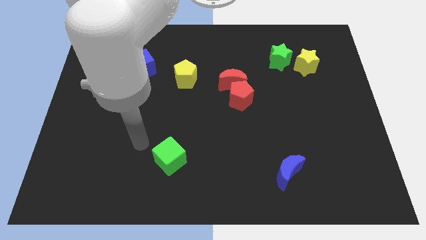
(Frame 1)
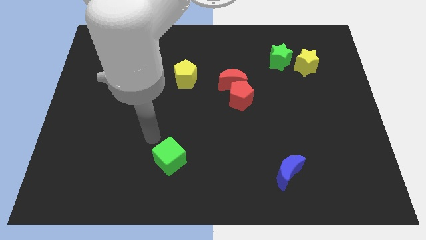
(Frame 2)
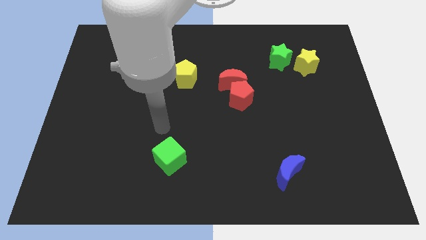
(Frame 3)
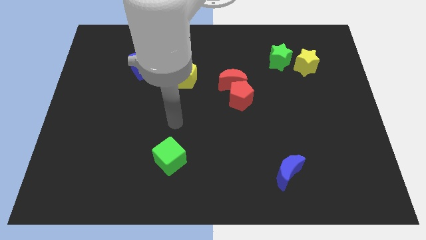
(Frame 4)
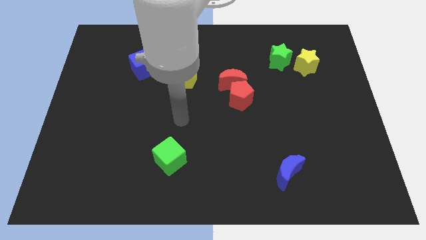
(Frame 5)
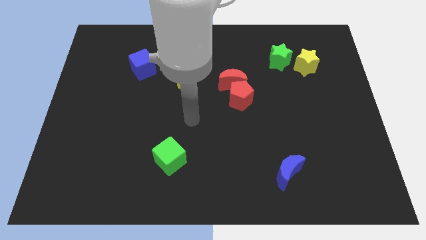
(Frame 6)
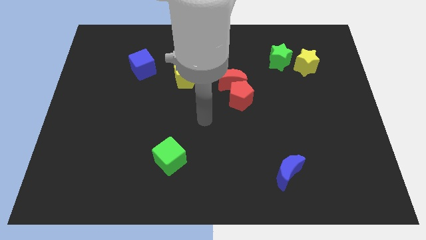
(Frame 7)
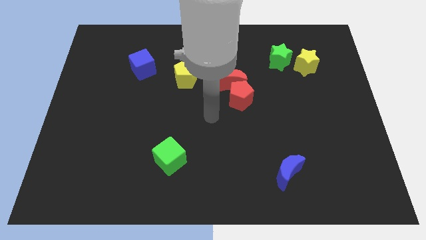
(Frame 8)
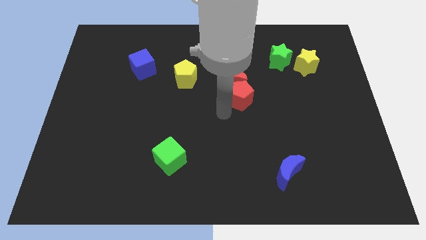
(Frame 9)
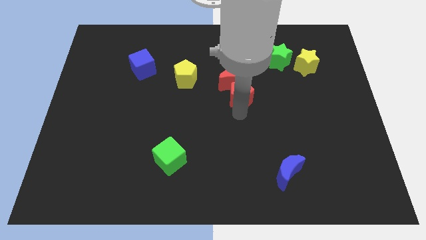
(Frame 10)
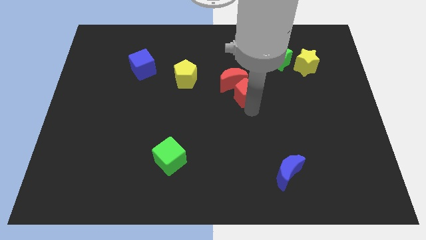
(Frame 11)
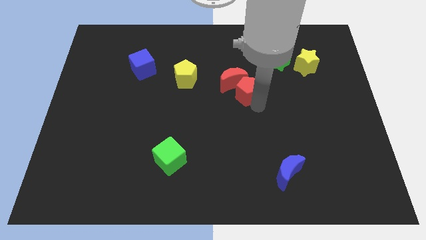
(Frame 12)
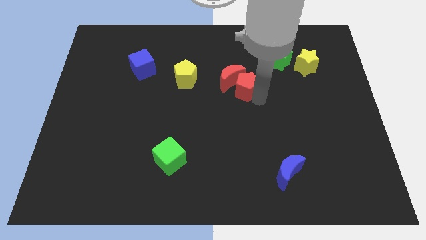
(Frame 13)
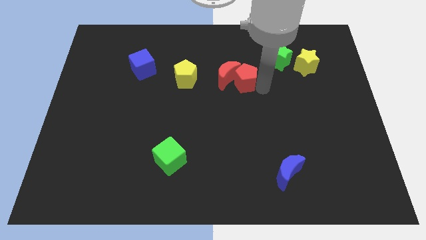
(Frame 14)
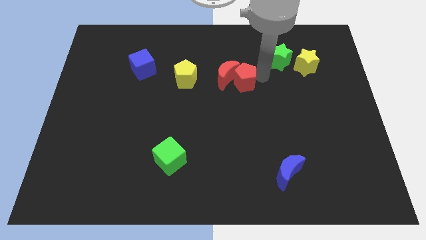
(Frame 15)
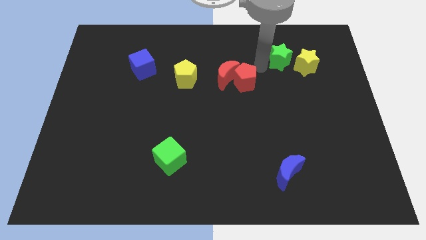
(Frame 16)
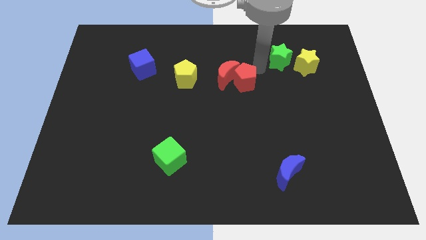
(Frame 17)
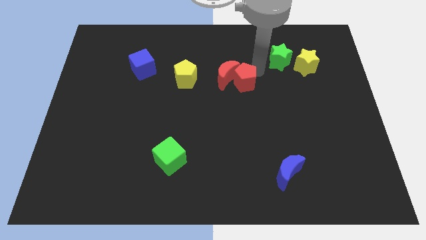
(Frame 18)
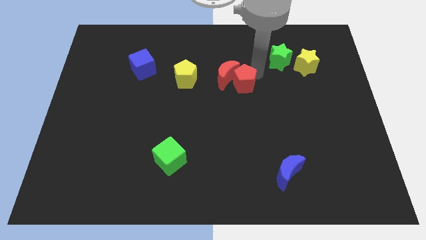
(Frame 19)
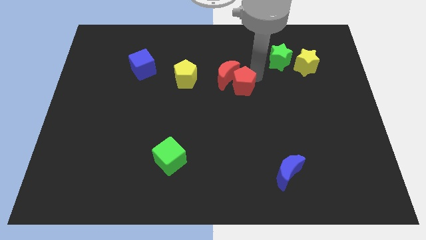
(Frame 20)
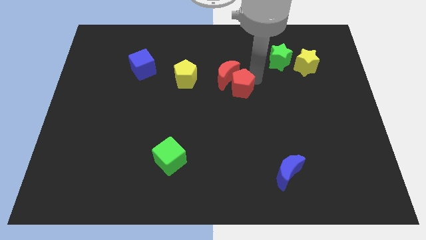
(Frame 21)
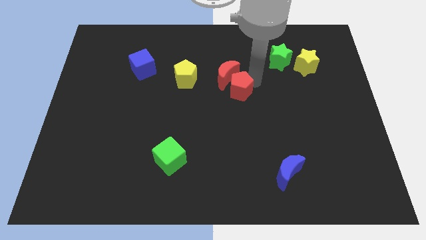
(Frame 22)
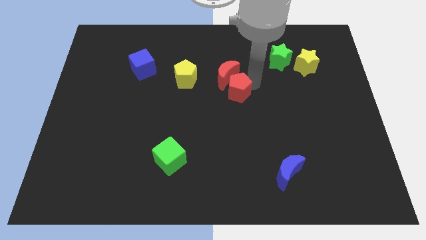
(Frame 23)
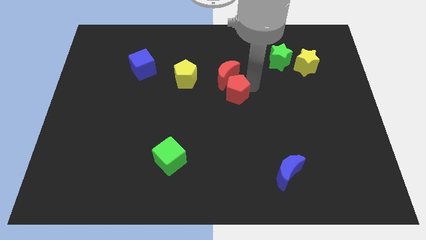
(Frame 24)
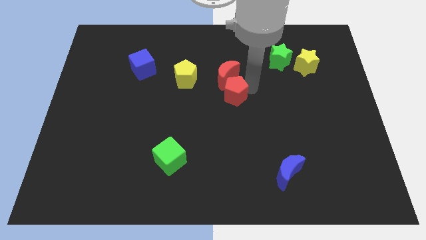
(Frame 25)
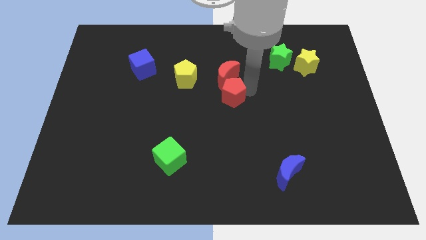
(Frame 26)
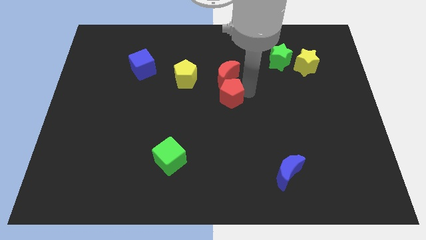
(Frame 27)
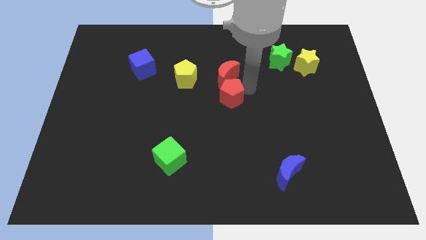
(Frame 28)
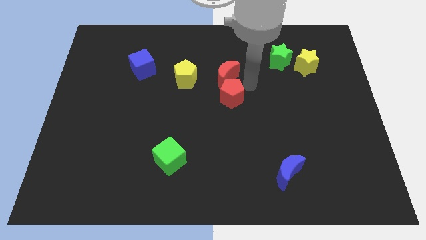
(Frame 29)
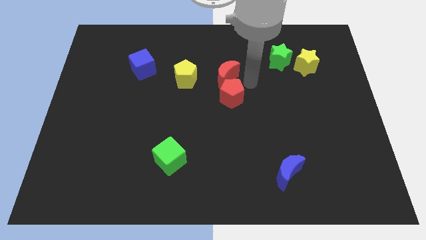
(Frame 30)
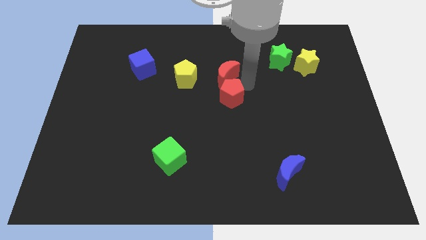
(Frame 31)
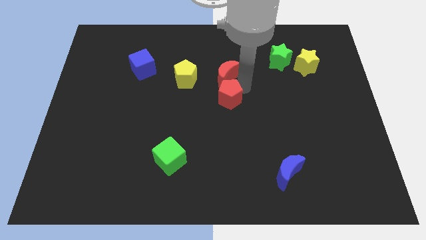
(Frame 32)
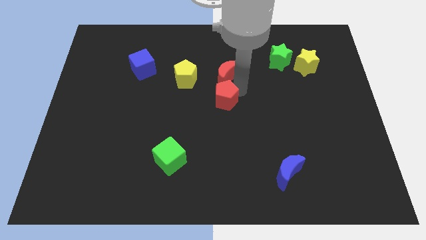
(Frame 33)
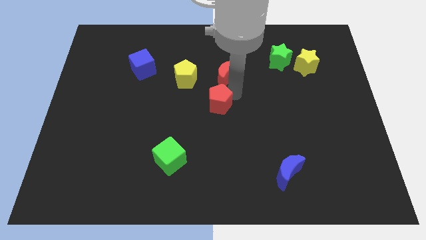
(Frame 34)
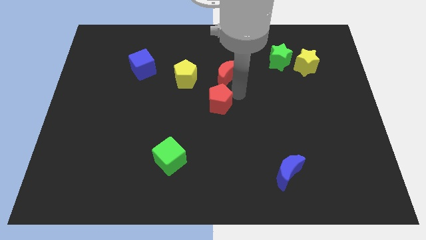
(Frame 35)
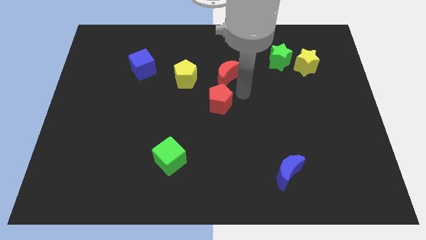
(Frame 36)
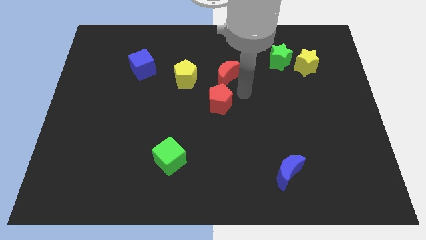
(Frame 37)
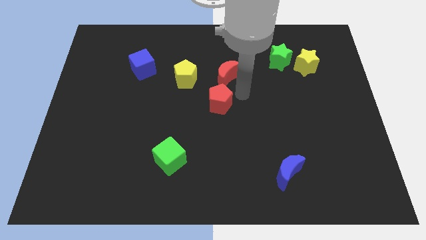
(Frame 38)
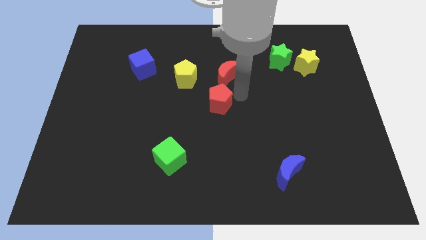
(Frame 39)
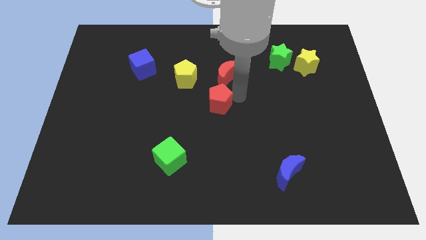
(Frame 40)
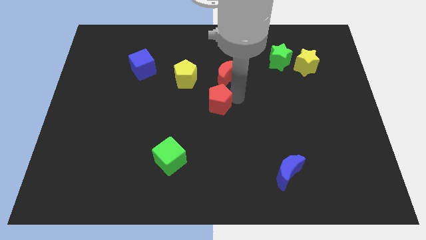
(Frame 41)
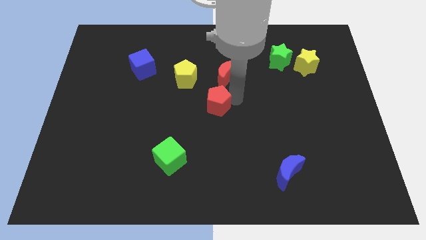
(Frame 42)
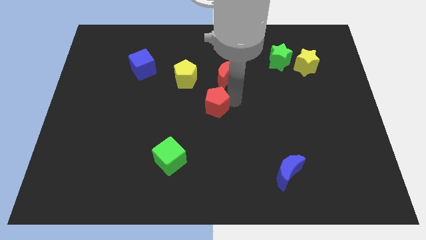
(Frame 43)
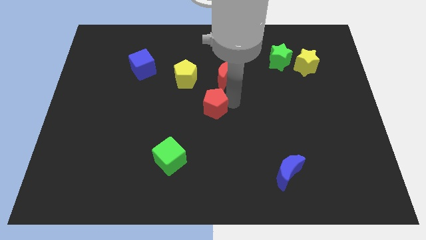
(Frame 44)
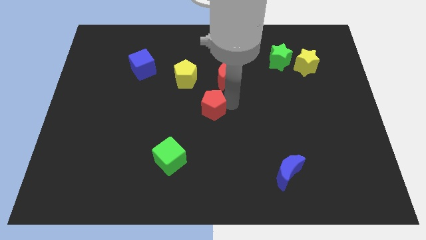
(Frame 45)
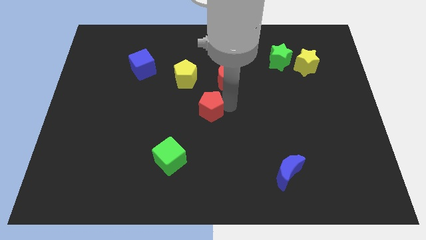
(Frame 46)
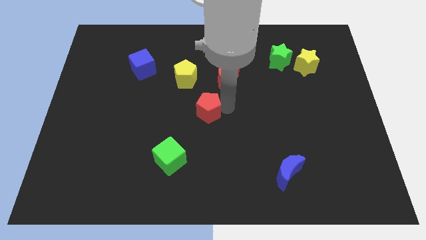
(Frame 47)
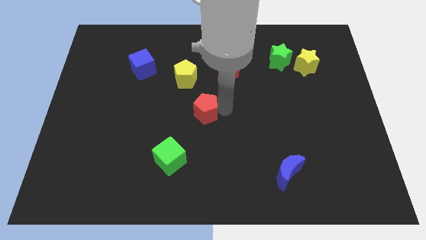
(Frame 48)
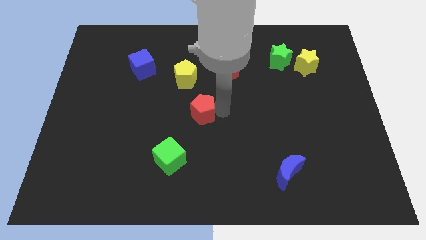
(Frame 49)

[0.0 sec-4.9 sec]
push the red pentagon below the yellow pentagon

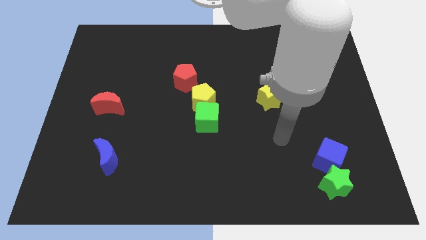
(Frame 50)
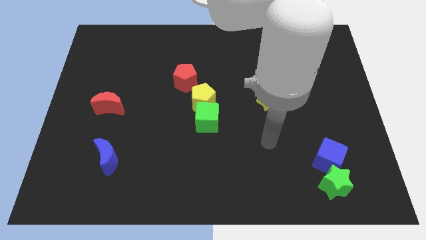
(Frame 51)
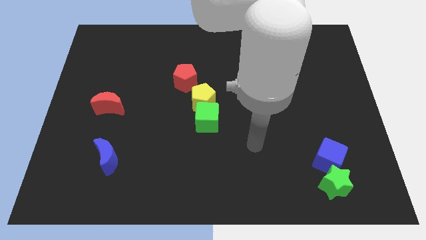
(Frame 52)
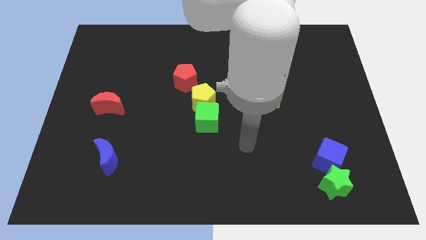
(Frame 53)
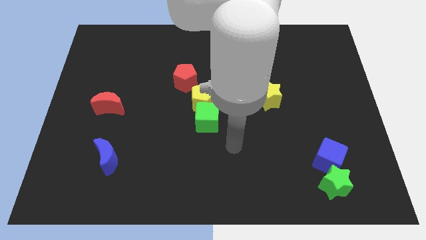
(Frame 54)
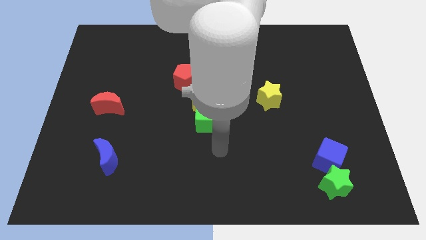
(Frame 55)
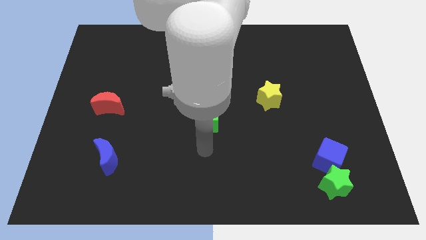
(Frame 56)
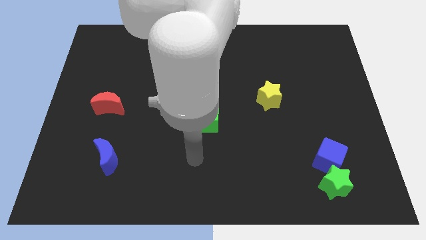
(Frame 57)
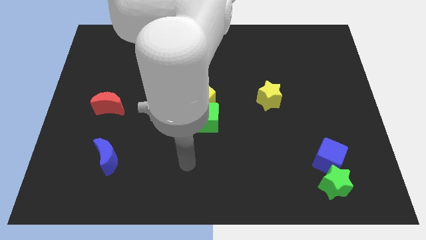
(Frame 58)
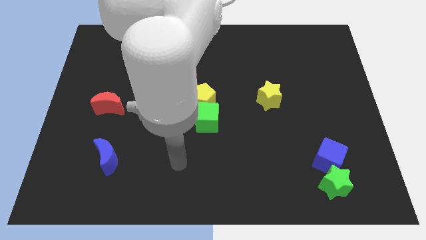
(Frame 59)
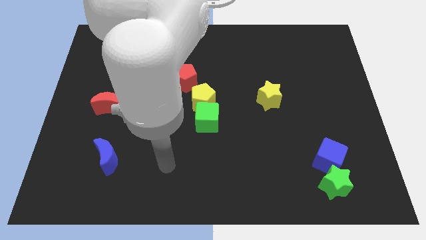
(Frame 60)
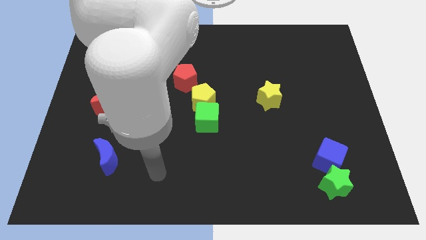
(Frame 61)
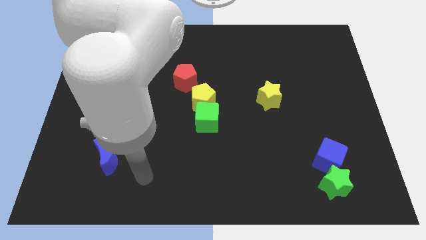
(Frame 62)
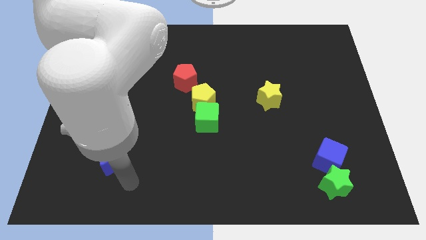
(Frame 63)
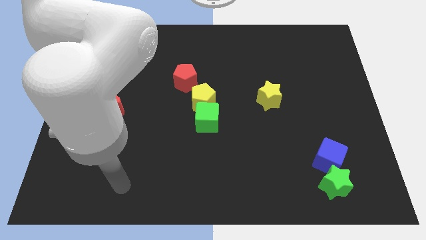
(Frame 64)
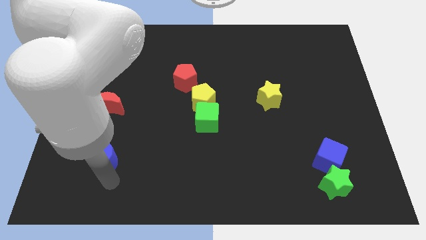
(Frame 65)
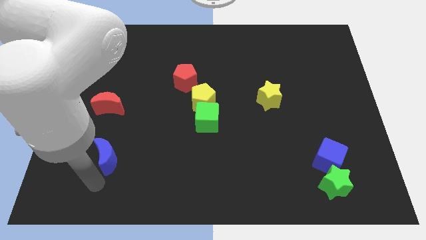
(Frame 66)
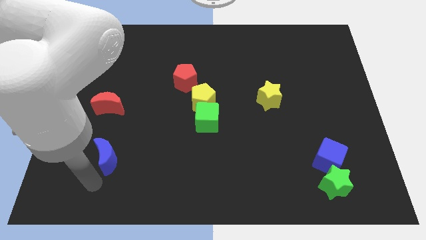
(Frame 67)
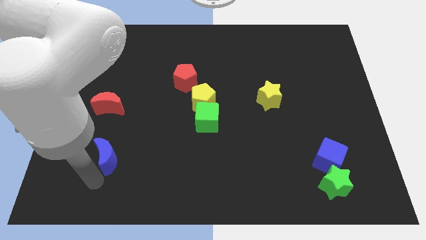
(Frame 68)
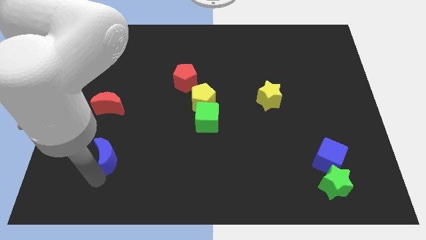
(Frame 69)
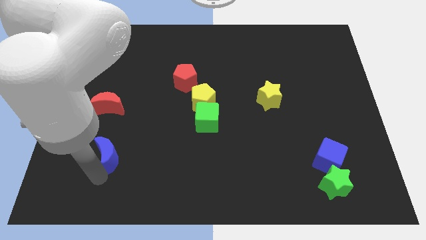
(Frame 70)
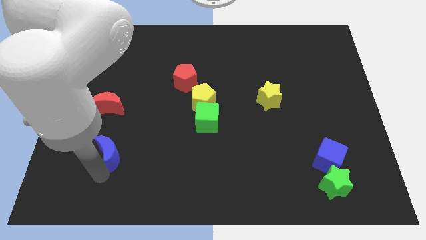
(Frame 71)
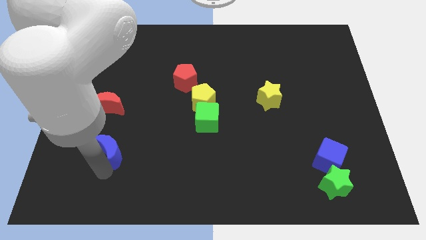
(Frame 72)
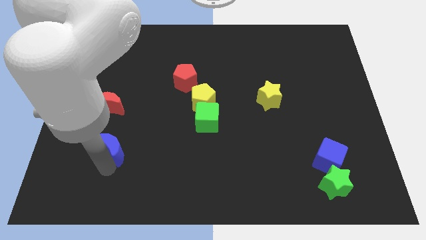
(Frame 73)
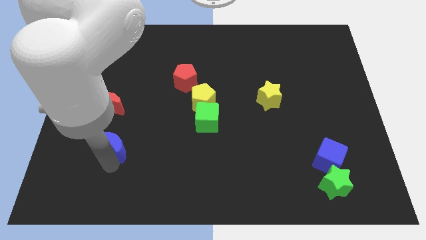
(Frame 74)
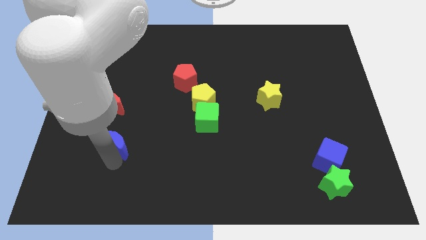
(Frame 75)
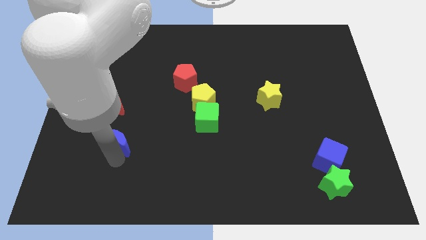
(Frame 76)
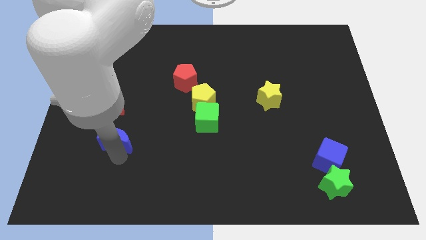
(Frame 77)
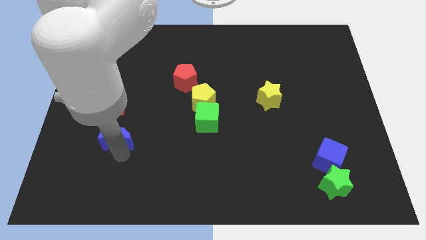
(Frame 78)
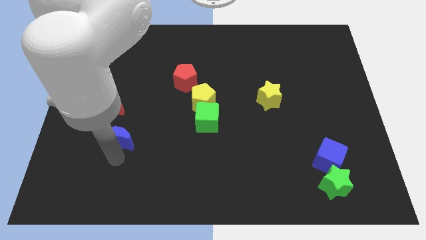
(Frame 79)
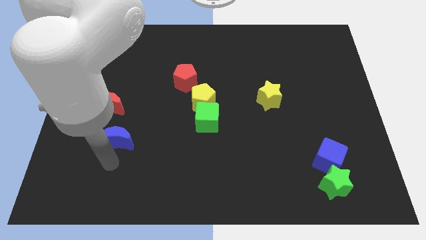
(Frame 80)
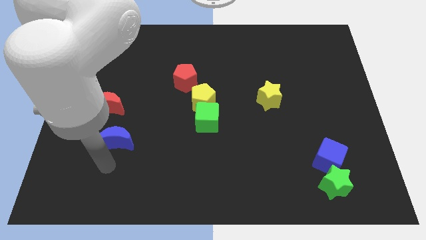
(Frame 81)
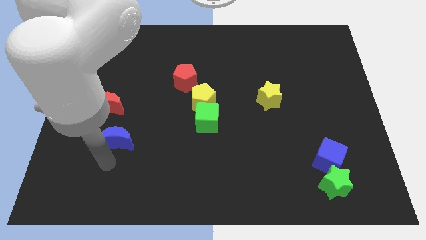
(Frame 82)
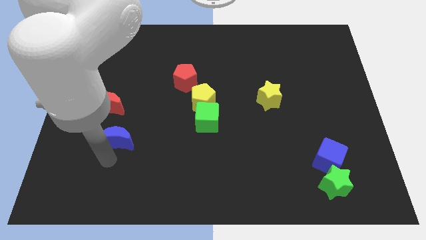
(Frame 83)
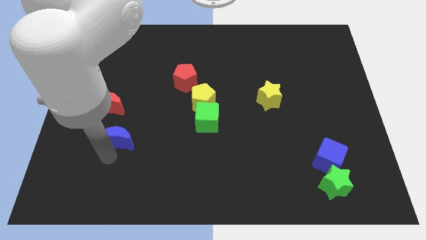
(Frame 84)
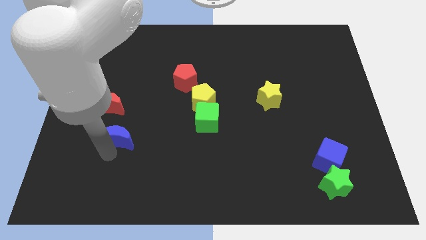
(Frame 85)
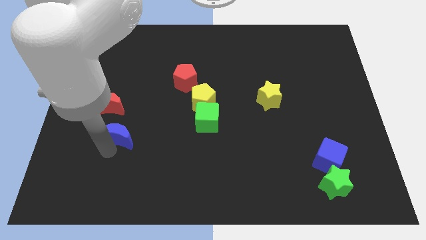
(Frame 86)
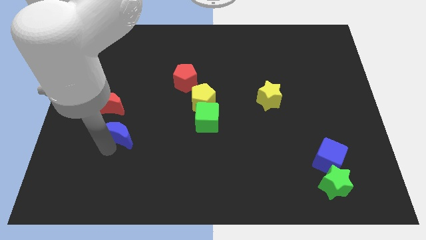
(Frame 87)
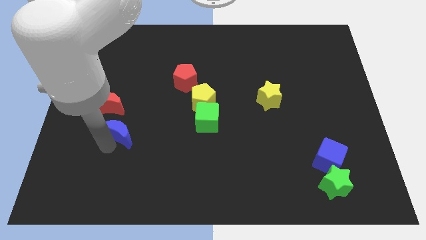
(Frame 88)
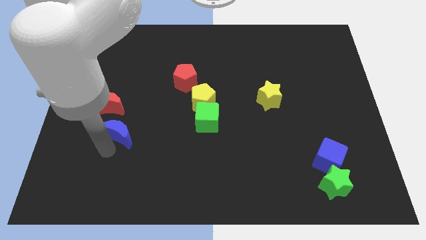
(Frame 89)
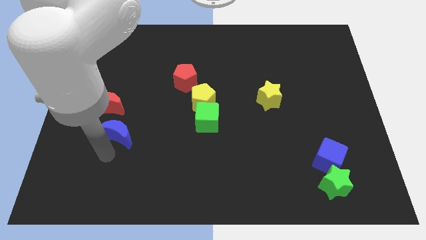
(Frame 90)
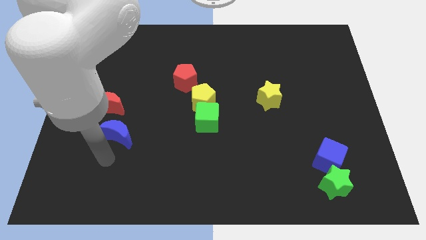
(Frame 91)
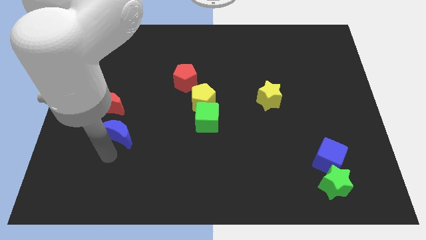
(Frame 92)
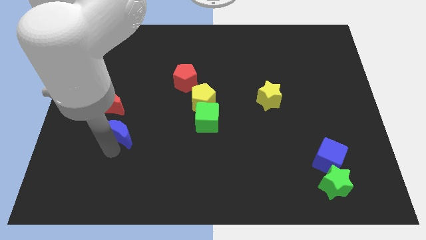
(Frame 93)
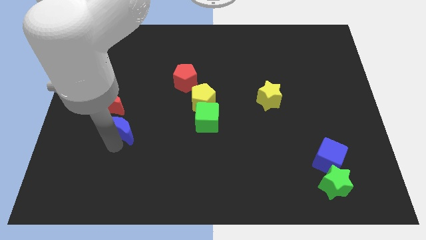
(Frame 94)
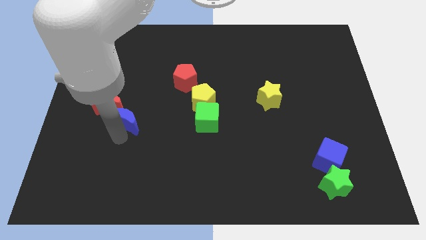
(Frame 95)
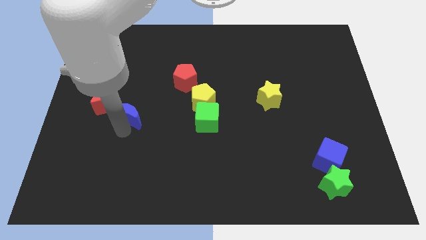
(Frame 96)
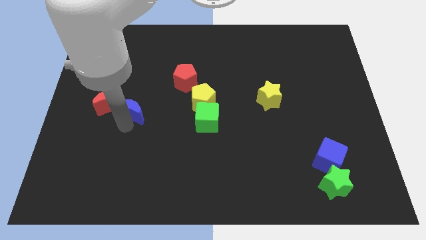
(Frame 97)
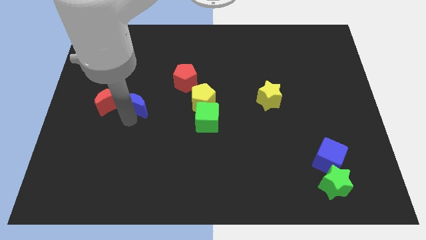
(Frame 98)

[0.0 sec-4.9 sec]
move the blue moon to the top right side of the red moon
